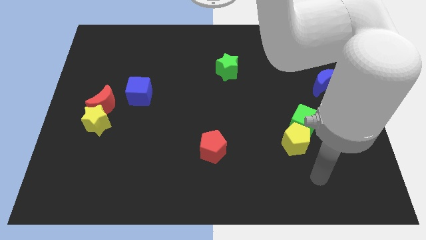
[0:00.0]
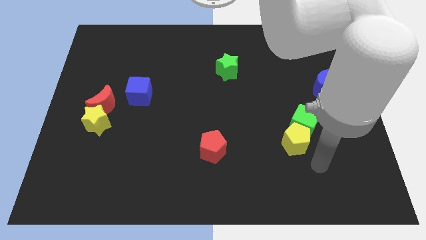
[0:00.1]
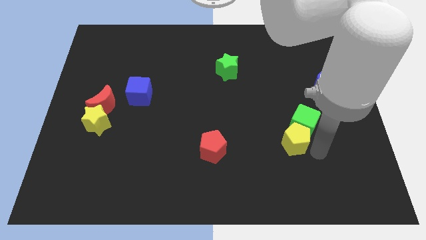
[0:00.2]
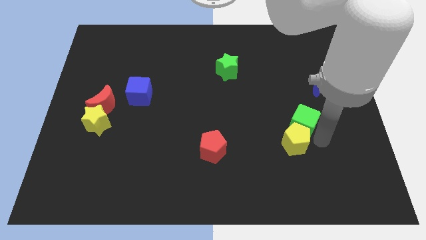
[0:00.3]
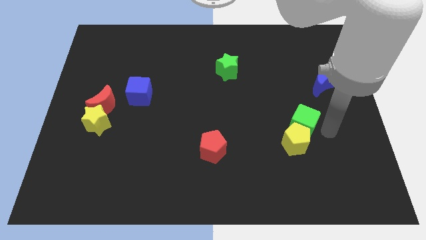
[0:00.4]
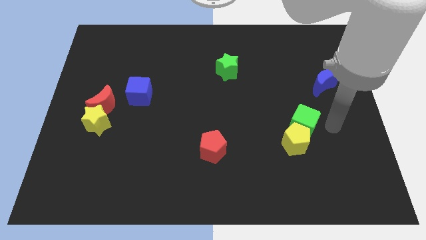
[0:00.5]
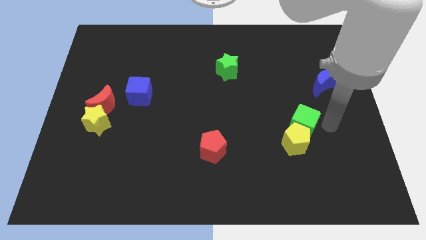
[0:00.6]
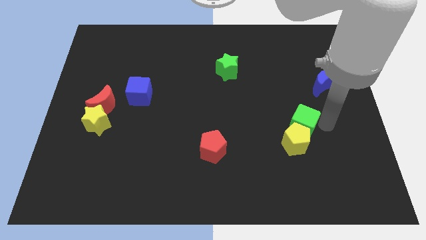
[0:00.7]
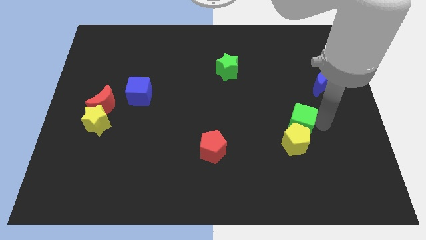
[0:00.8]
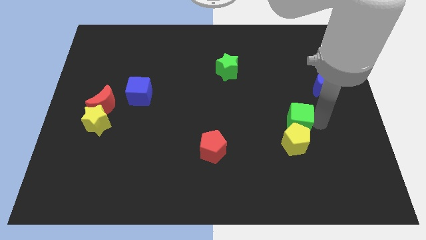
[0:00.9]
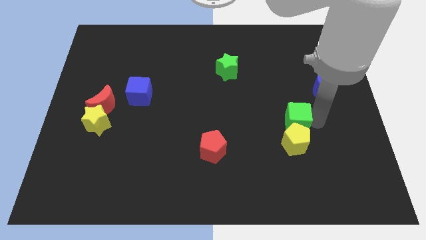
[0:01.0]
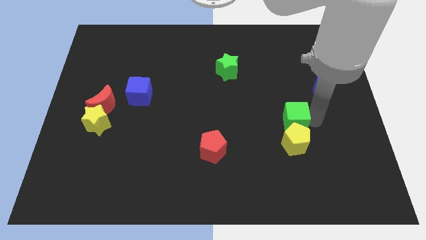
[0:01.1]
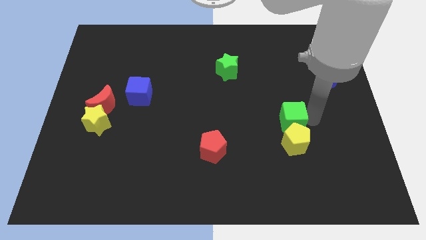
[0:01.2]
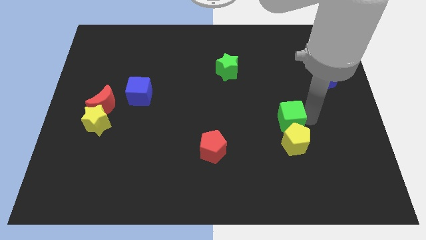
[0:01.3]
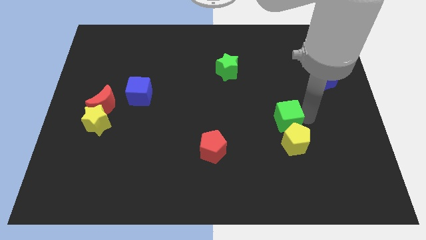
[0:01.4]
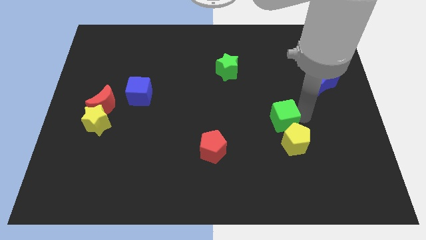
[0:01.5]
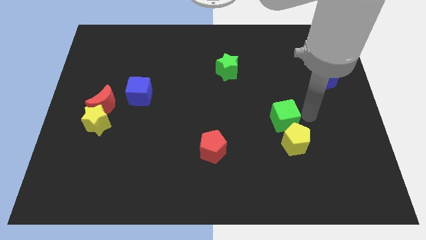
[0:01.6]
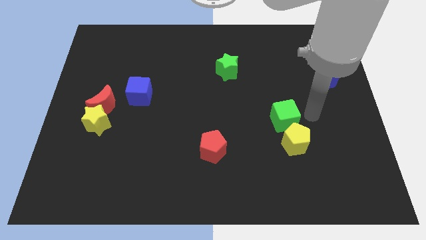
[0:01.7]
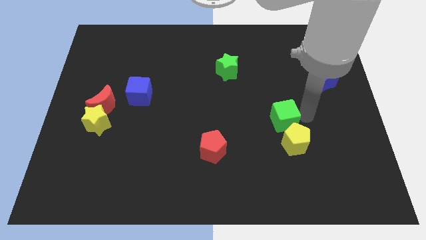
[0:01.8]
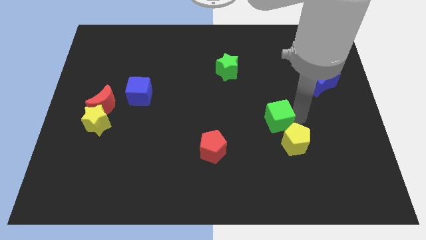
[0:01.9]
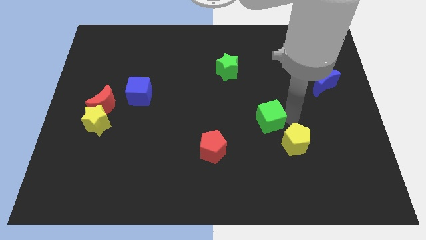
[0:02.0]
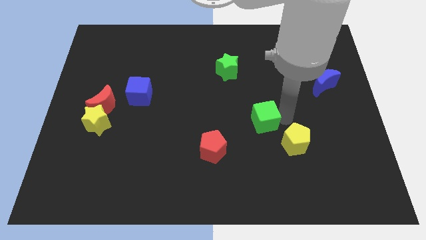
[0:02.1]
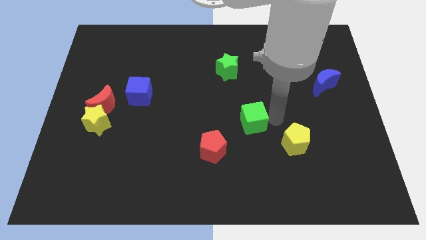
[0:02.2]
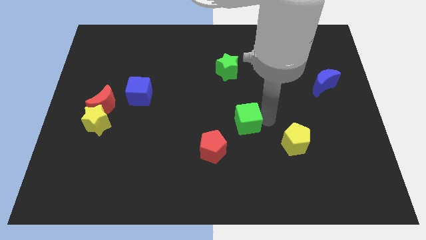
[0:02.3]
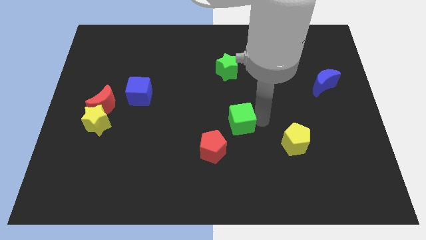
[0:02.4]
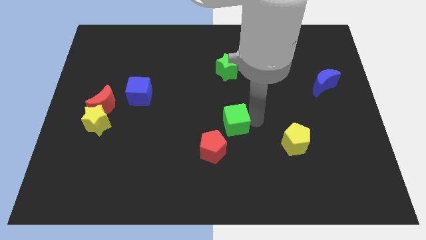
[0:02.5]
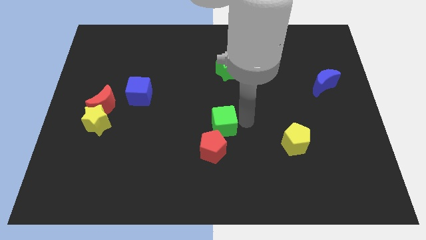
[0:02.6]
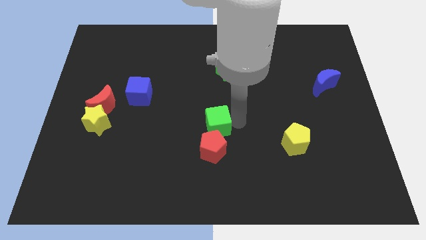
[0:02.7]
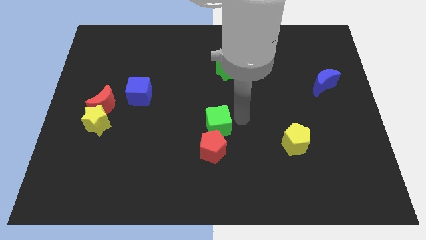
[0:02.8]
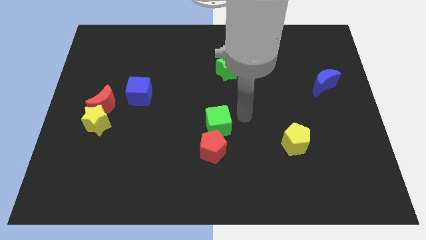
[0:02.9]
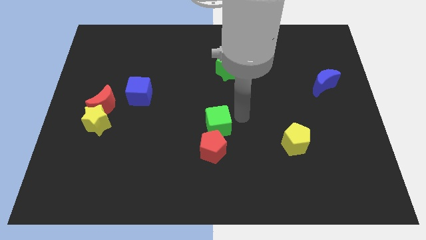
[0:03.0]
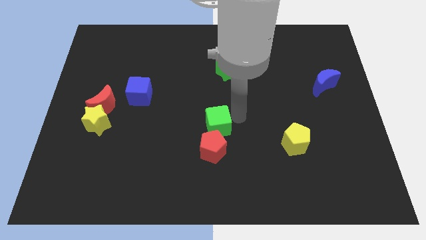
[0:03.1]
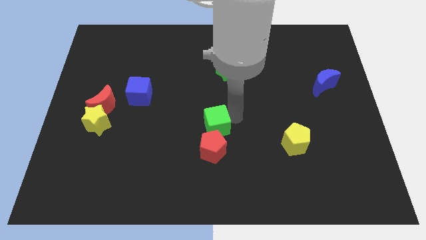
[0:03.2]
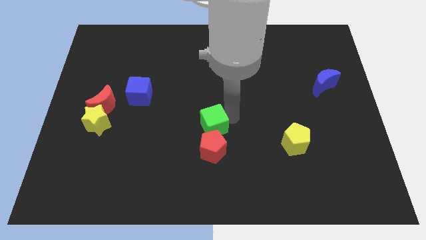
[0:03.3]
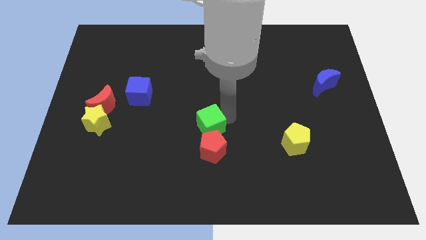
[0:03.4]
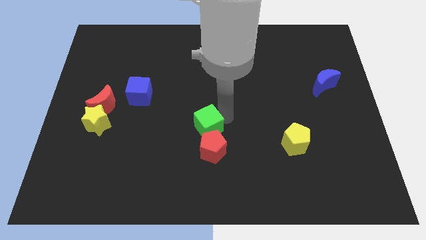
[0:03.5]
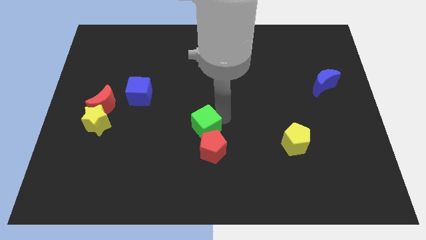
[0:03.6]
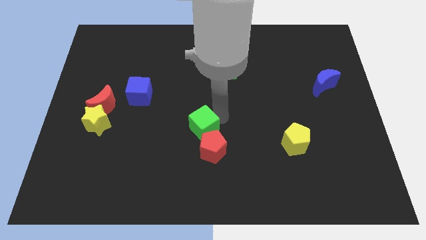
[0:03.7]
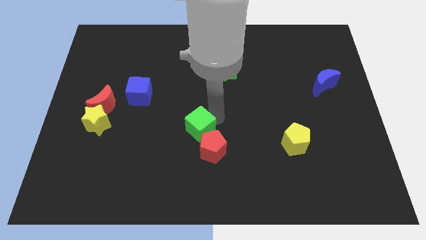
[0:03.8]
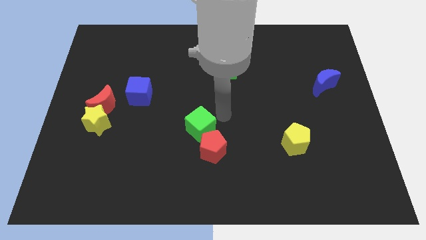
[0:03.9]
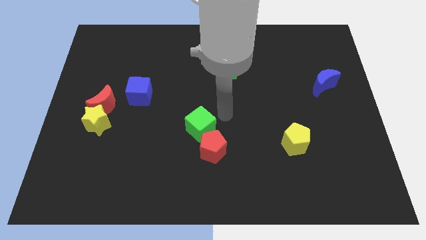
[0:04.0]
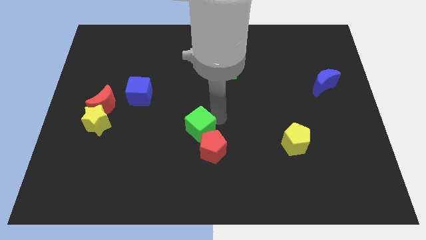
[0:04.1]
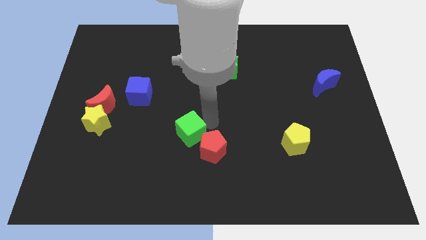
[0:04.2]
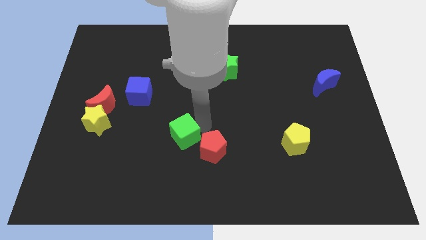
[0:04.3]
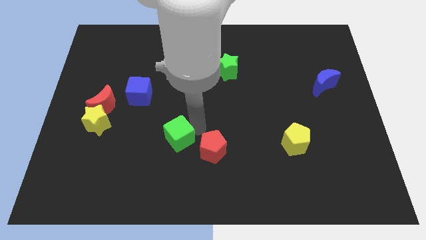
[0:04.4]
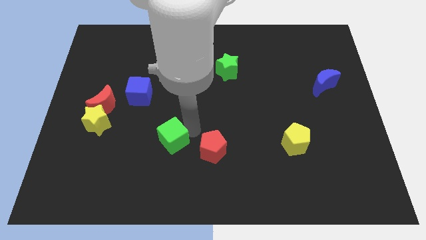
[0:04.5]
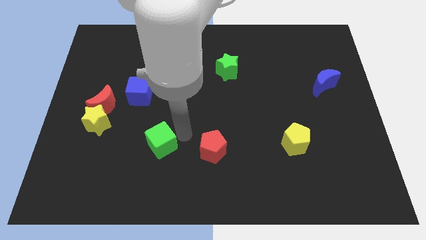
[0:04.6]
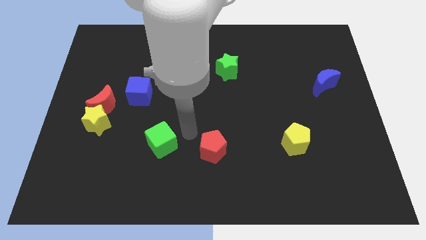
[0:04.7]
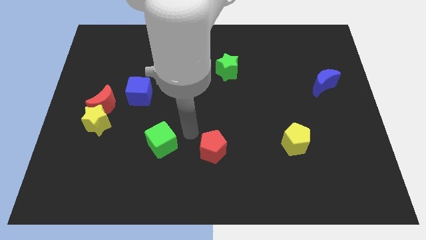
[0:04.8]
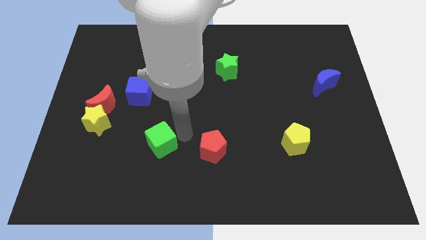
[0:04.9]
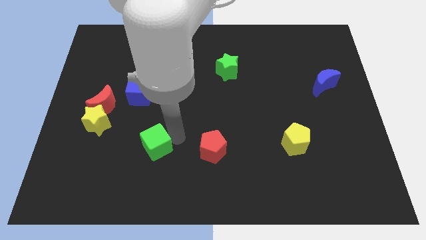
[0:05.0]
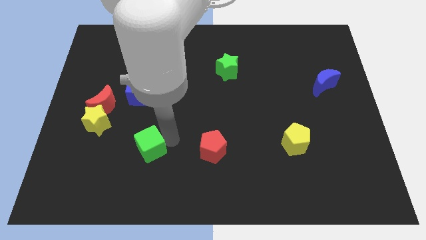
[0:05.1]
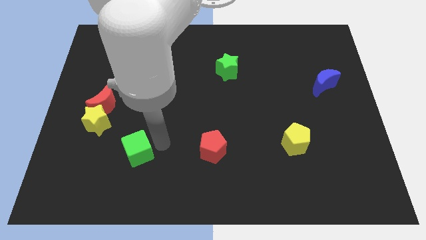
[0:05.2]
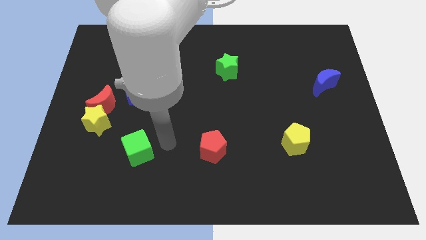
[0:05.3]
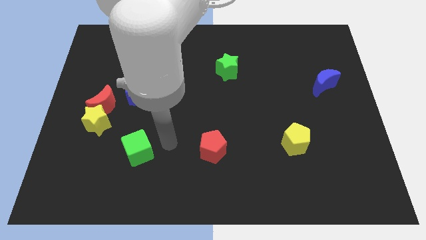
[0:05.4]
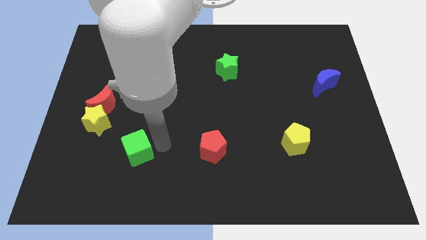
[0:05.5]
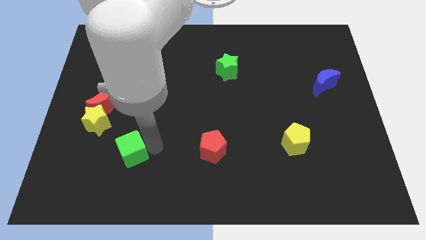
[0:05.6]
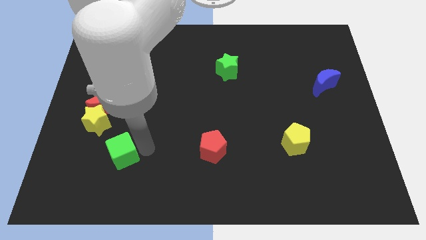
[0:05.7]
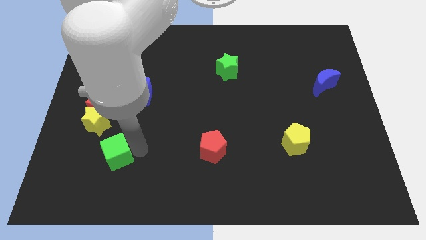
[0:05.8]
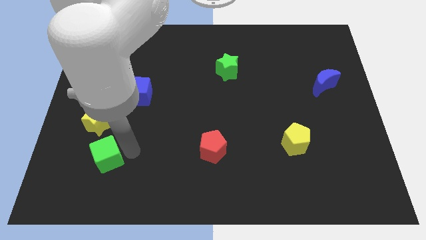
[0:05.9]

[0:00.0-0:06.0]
slide the green cube to the bottom side of the yellow star

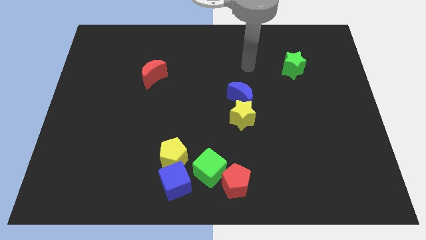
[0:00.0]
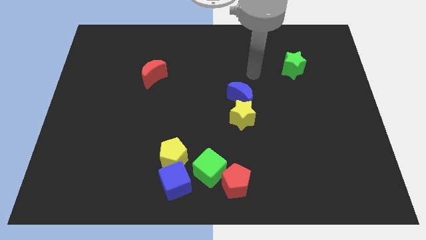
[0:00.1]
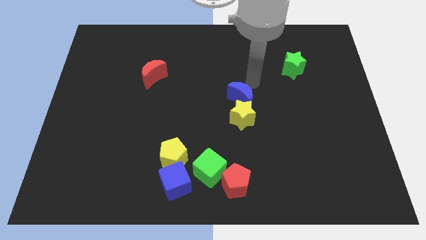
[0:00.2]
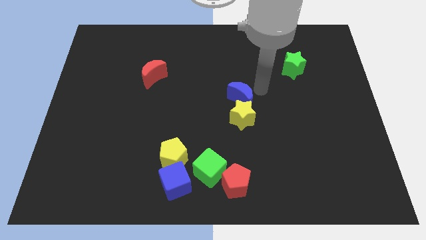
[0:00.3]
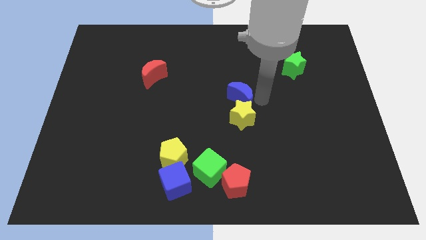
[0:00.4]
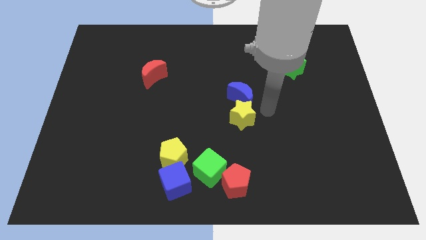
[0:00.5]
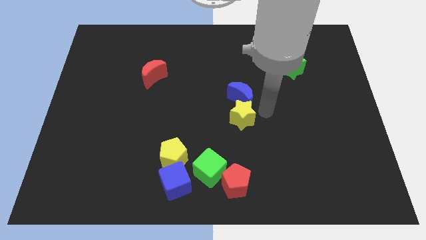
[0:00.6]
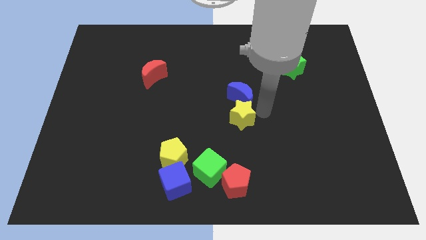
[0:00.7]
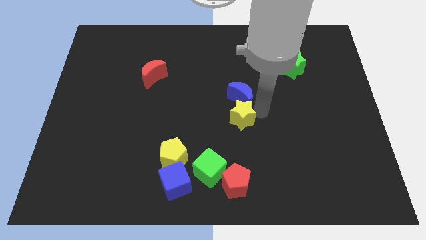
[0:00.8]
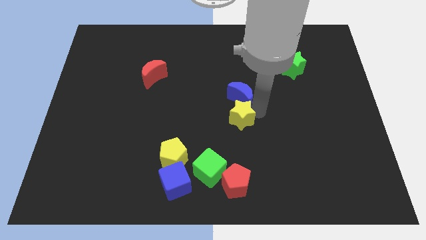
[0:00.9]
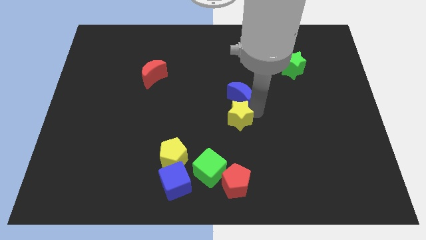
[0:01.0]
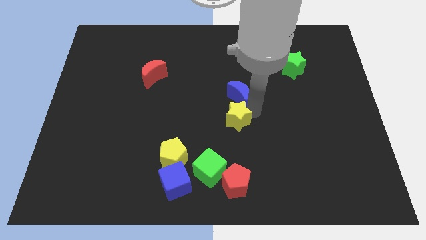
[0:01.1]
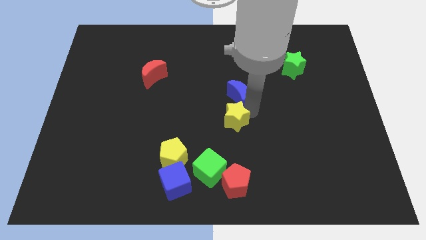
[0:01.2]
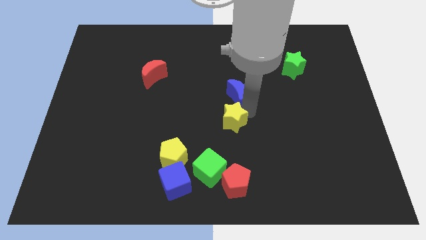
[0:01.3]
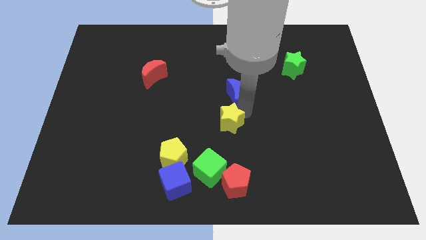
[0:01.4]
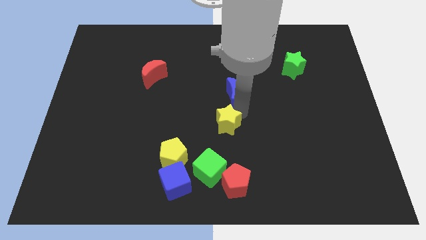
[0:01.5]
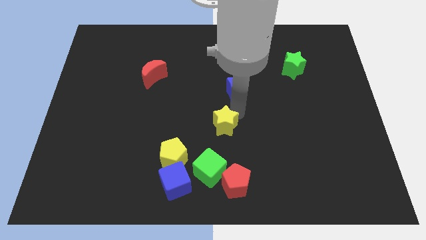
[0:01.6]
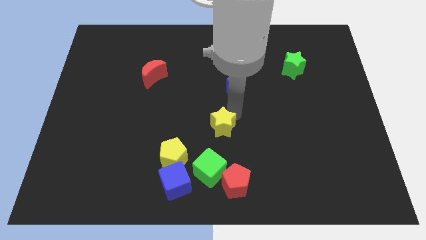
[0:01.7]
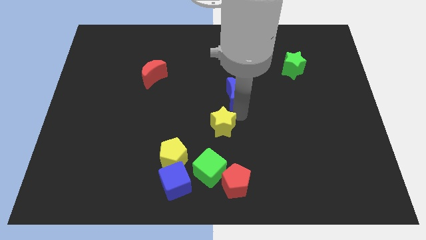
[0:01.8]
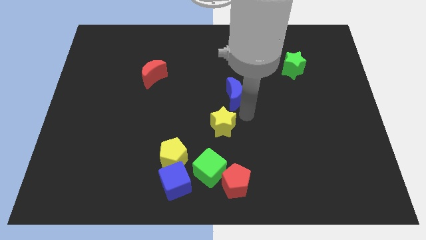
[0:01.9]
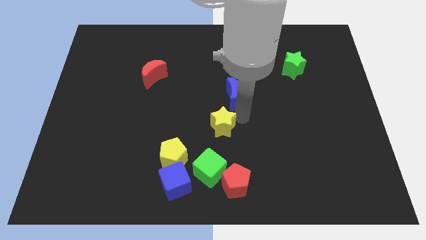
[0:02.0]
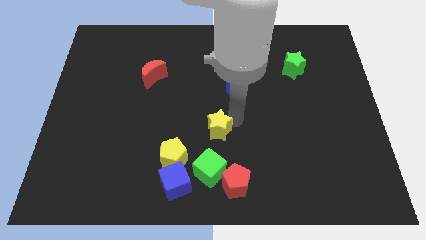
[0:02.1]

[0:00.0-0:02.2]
move the yellow star to the top right of the yellow pentagon
